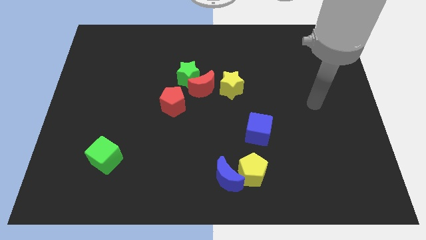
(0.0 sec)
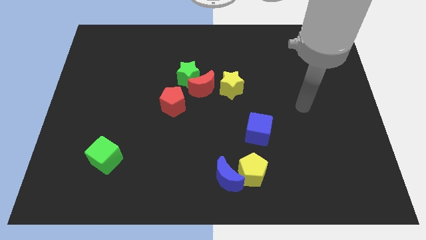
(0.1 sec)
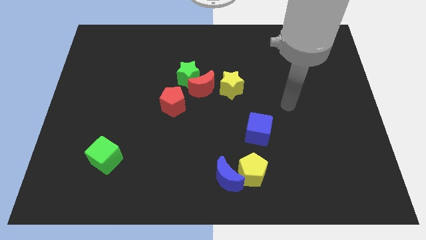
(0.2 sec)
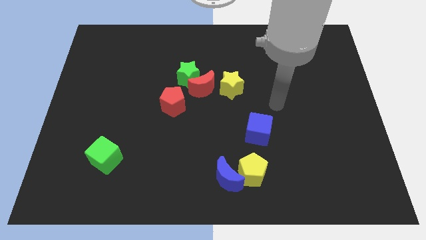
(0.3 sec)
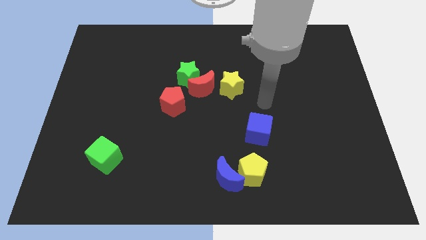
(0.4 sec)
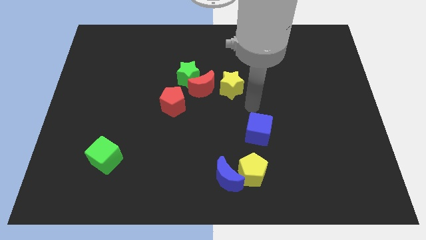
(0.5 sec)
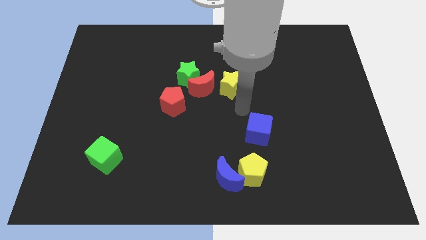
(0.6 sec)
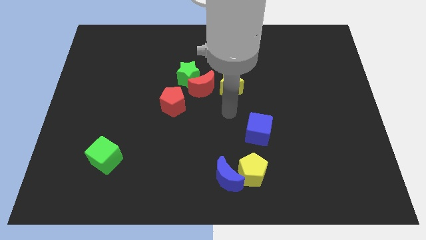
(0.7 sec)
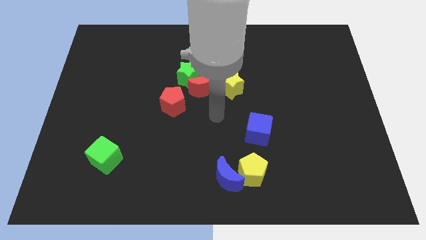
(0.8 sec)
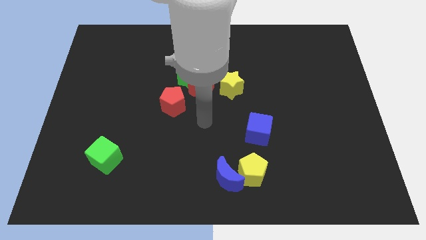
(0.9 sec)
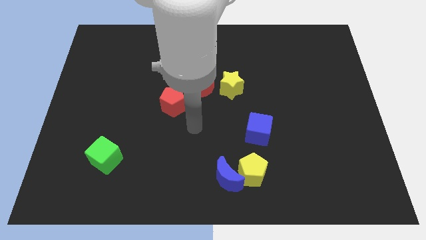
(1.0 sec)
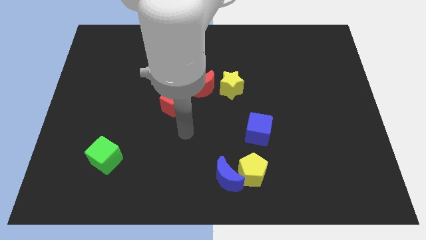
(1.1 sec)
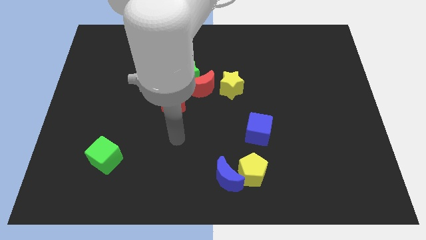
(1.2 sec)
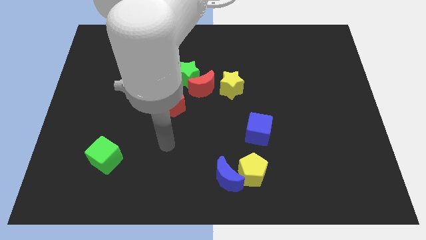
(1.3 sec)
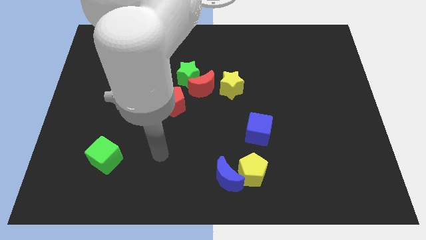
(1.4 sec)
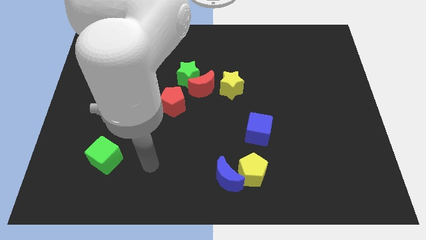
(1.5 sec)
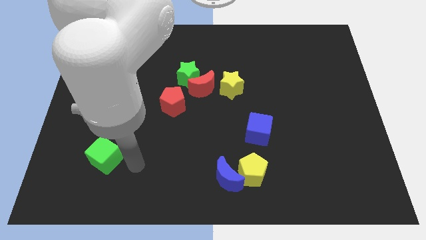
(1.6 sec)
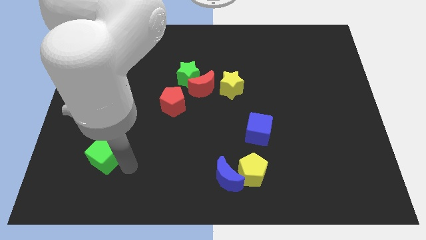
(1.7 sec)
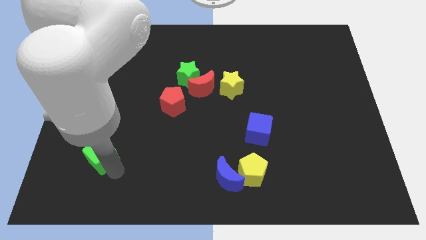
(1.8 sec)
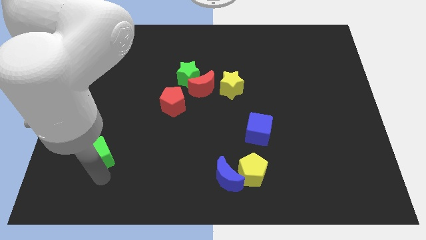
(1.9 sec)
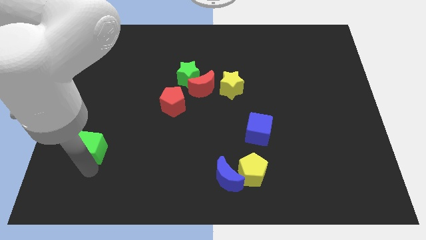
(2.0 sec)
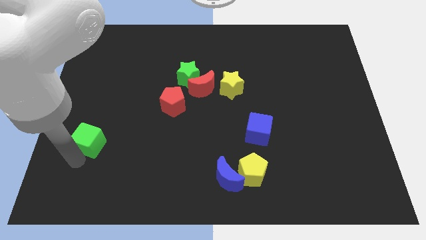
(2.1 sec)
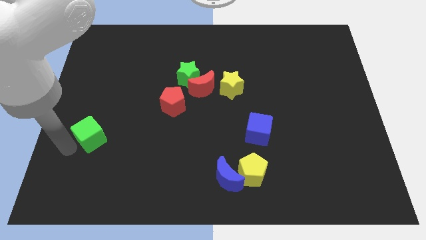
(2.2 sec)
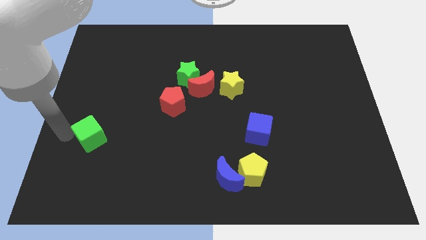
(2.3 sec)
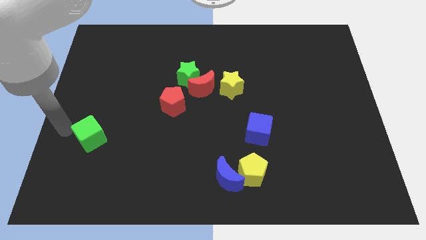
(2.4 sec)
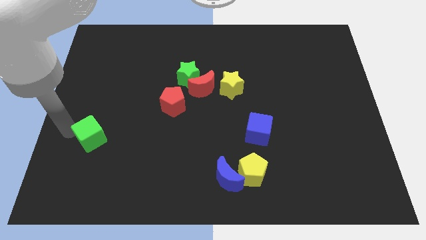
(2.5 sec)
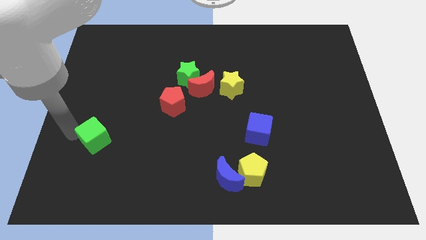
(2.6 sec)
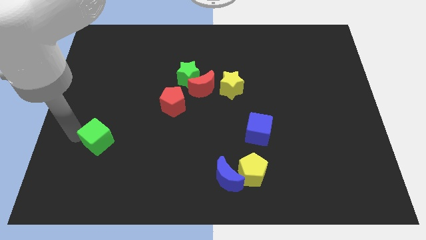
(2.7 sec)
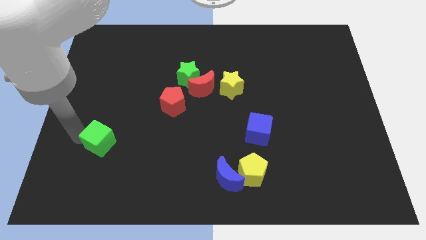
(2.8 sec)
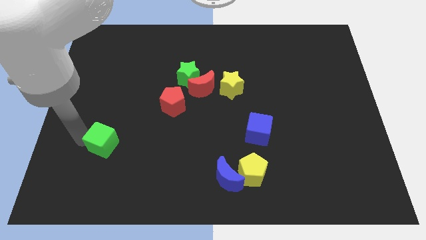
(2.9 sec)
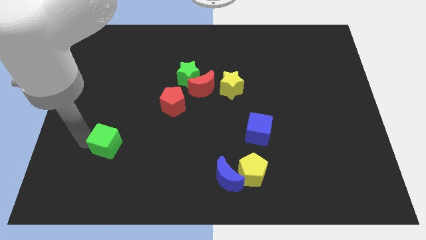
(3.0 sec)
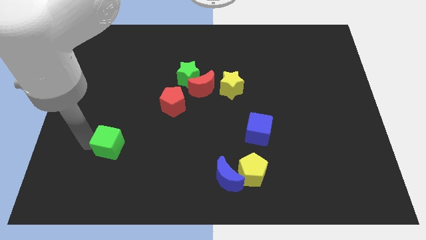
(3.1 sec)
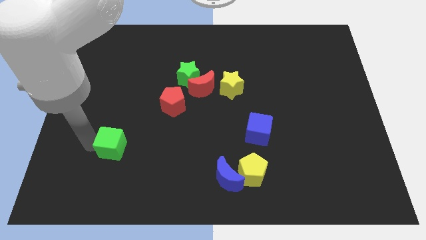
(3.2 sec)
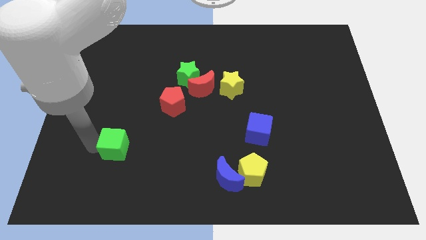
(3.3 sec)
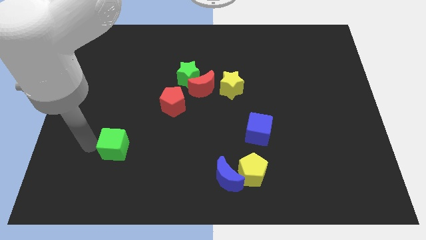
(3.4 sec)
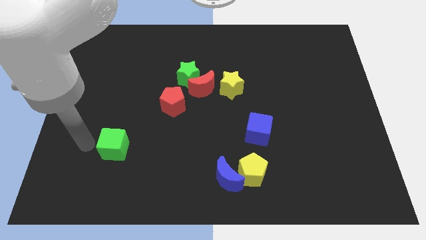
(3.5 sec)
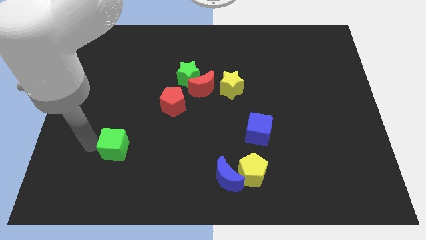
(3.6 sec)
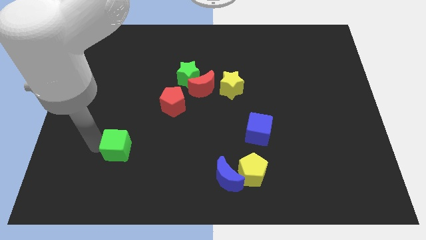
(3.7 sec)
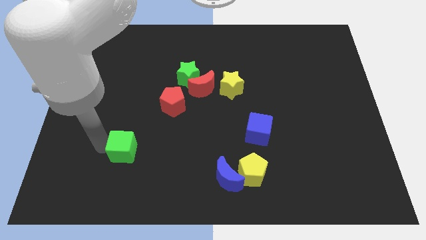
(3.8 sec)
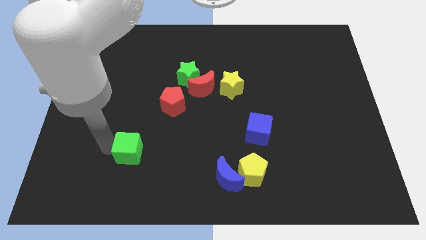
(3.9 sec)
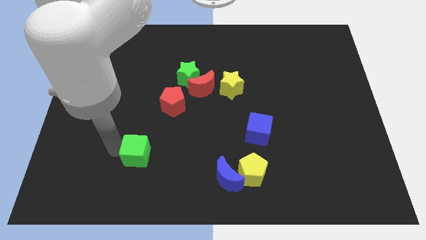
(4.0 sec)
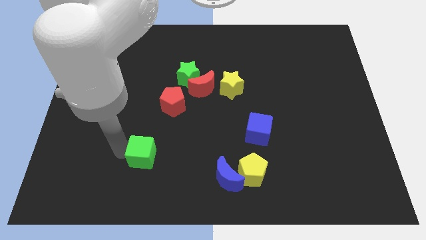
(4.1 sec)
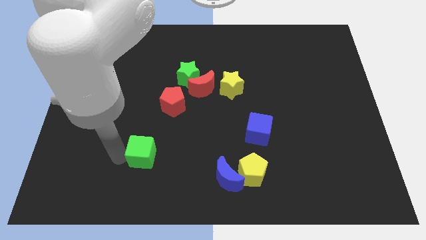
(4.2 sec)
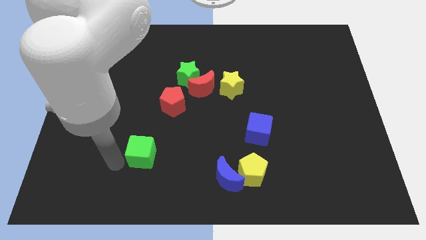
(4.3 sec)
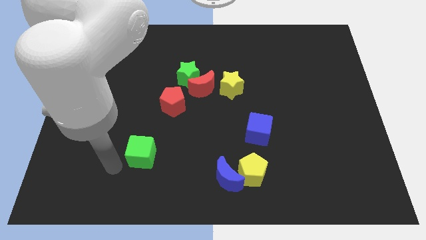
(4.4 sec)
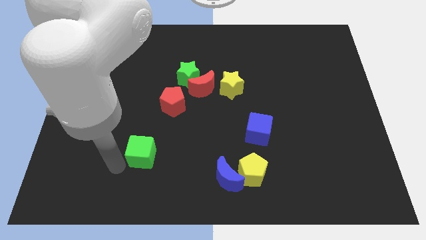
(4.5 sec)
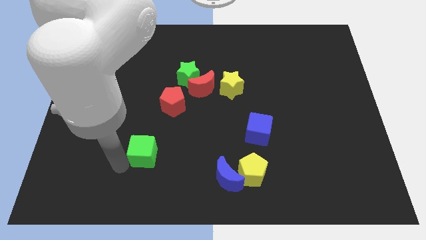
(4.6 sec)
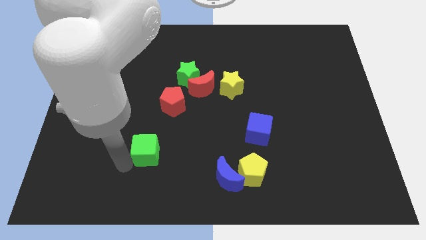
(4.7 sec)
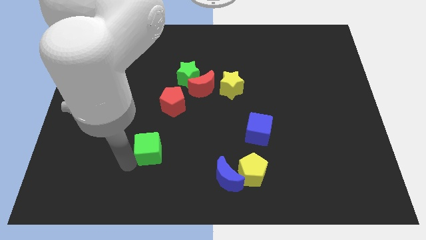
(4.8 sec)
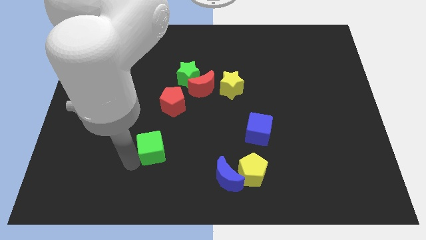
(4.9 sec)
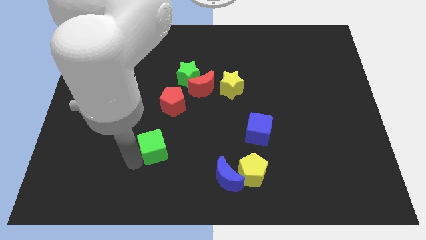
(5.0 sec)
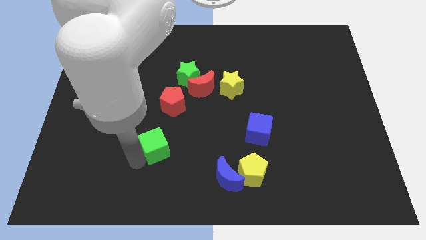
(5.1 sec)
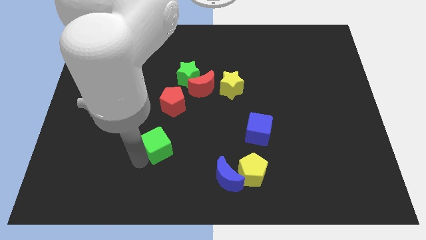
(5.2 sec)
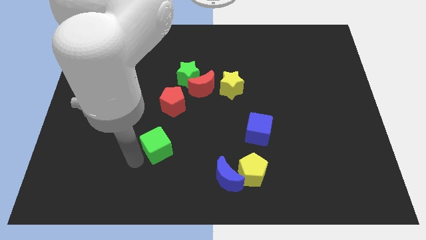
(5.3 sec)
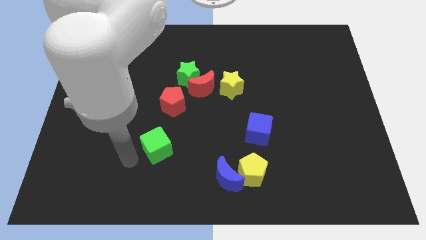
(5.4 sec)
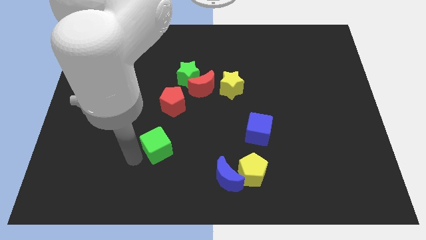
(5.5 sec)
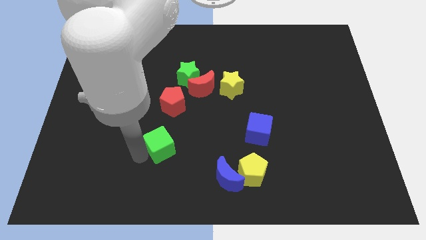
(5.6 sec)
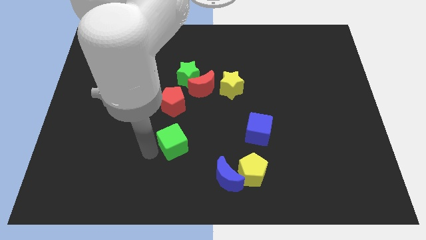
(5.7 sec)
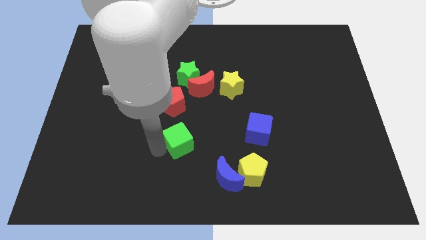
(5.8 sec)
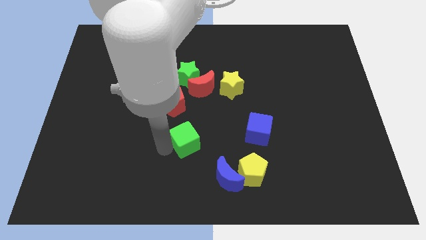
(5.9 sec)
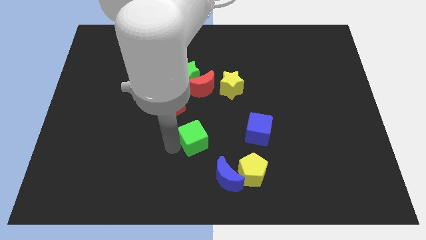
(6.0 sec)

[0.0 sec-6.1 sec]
slide the green cube to the left side of the blue cube

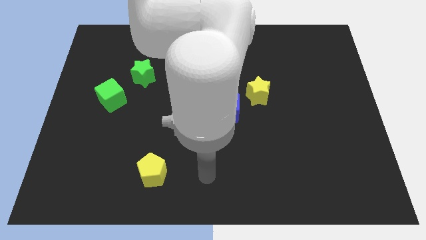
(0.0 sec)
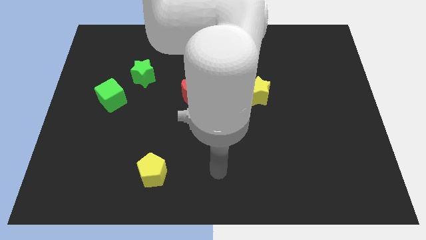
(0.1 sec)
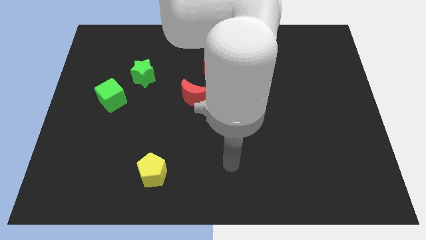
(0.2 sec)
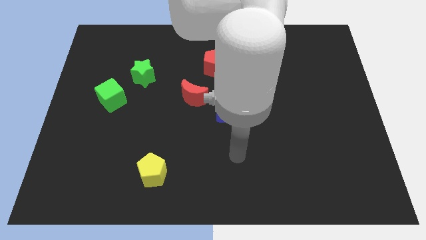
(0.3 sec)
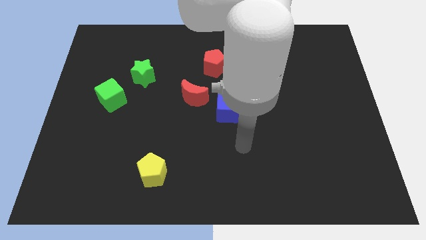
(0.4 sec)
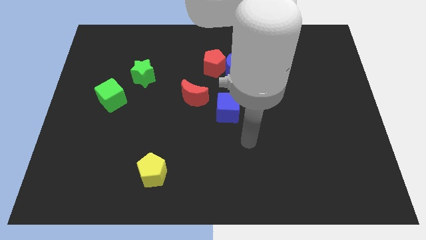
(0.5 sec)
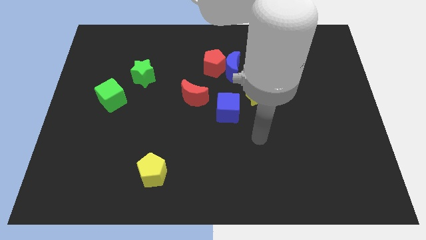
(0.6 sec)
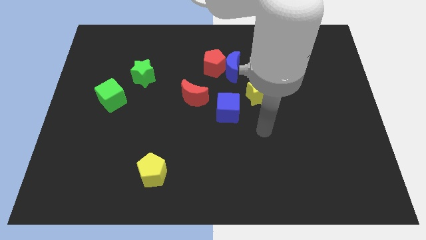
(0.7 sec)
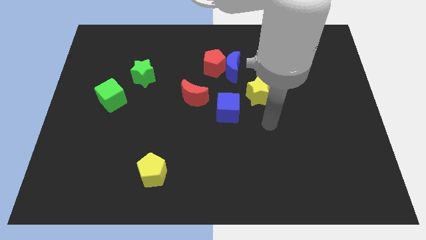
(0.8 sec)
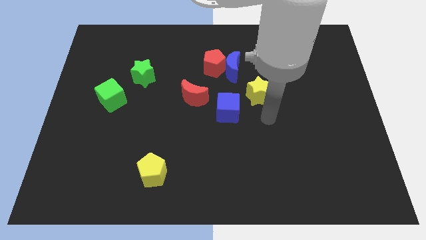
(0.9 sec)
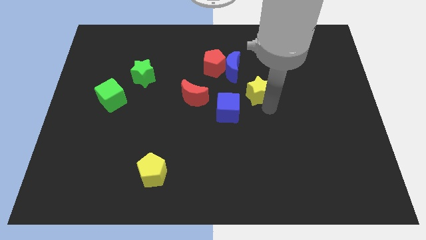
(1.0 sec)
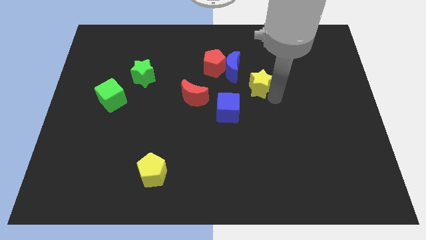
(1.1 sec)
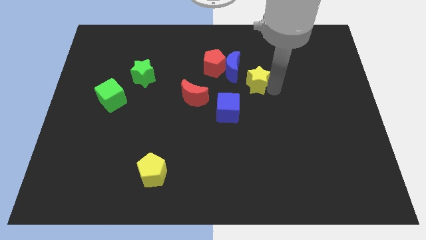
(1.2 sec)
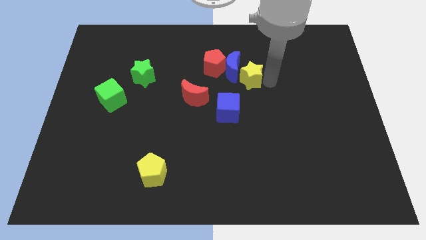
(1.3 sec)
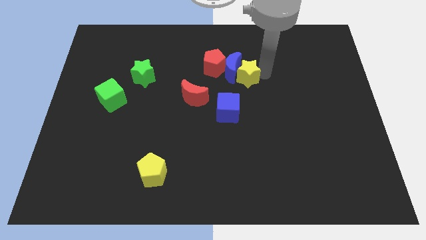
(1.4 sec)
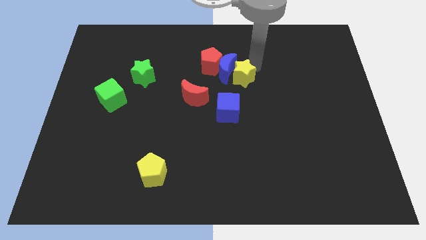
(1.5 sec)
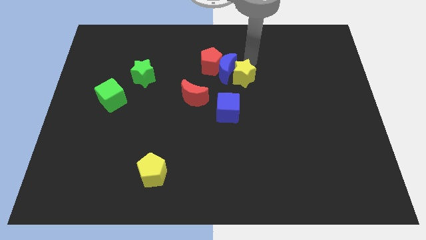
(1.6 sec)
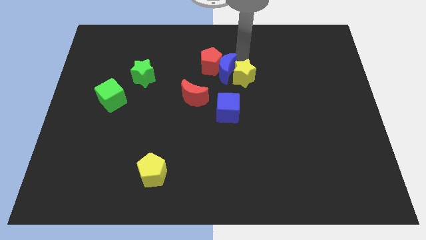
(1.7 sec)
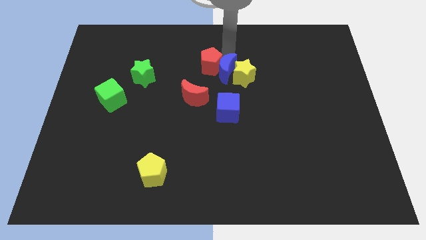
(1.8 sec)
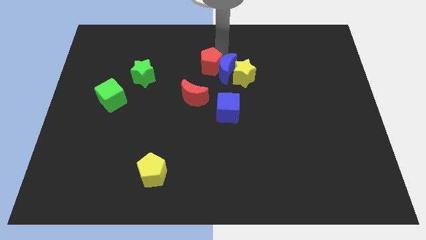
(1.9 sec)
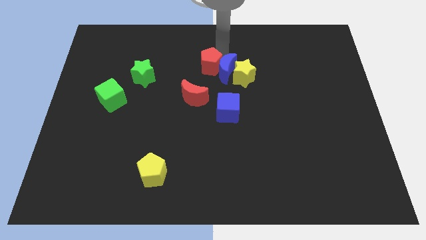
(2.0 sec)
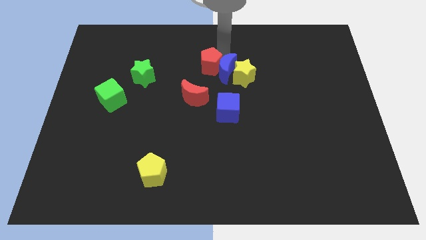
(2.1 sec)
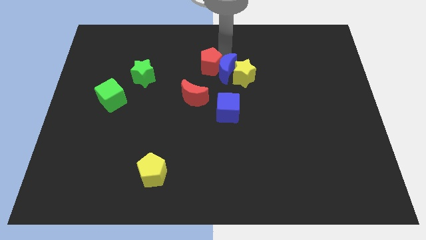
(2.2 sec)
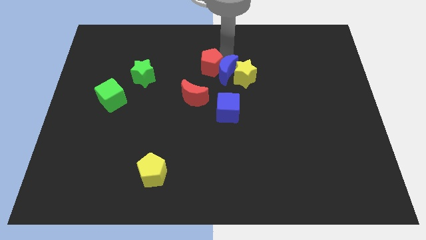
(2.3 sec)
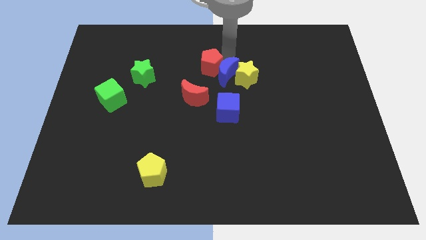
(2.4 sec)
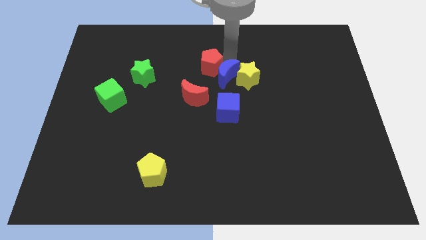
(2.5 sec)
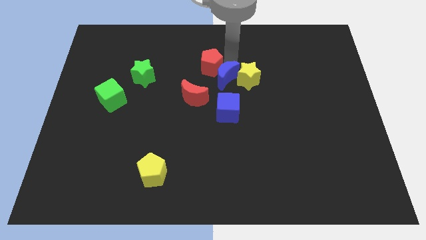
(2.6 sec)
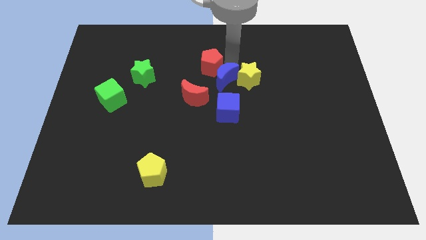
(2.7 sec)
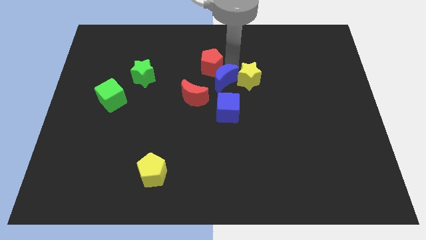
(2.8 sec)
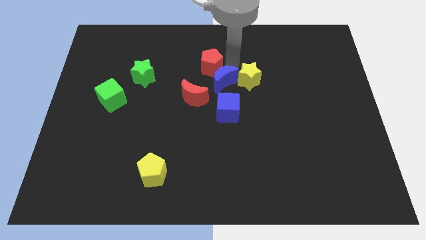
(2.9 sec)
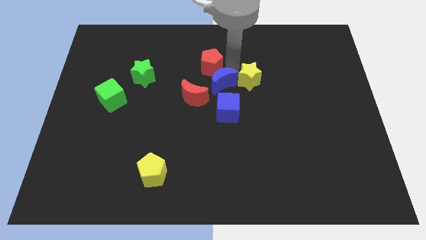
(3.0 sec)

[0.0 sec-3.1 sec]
move the blue moon to the right of the red moon
